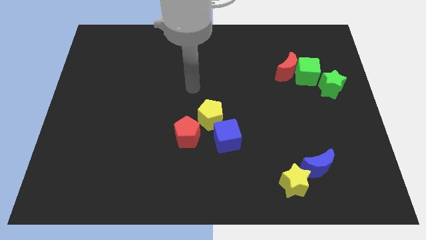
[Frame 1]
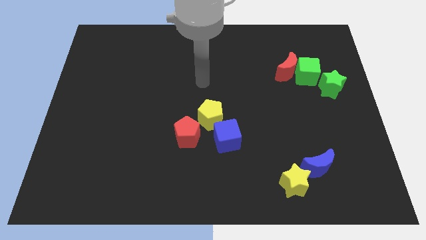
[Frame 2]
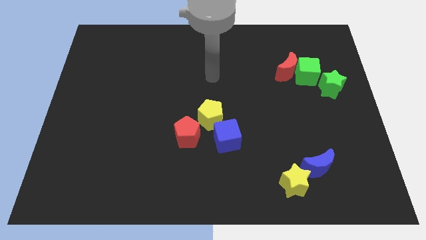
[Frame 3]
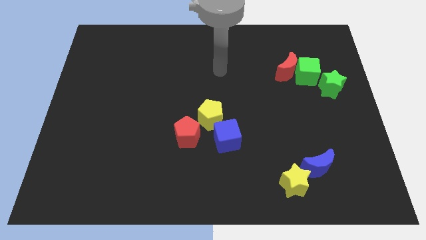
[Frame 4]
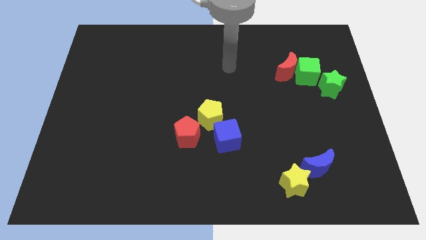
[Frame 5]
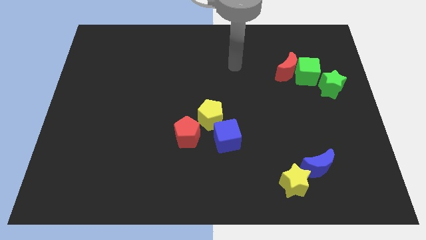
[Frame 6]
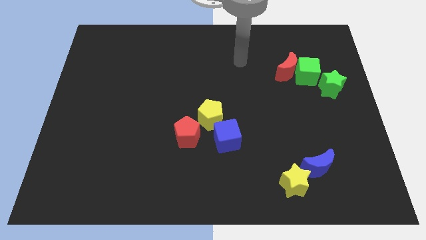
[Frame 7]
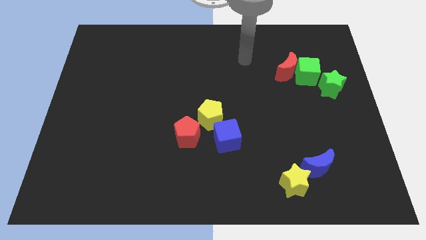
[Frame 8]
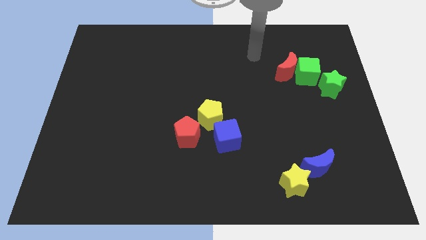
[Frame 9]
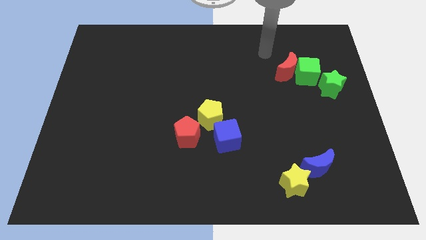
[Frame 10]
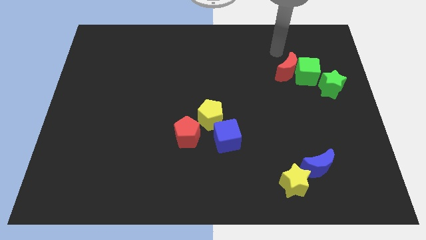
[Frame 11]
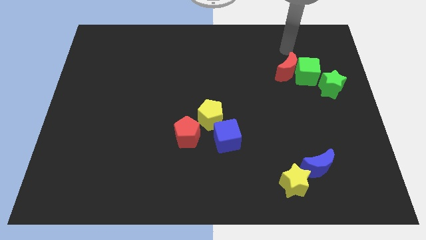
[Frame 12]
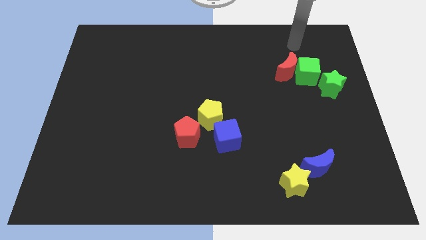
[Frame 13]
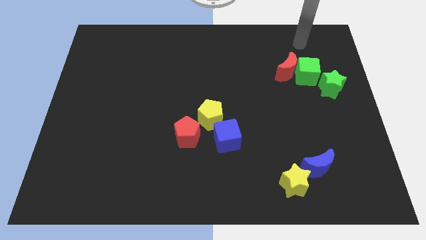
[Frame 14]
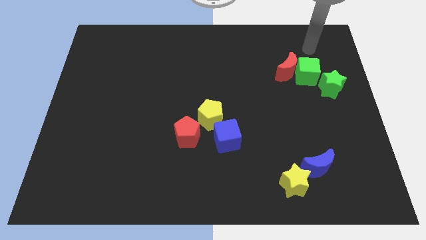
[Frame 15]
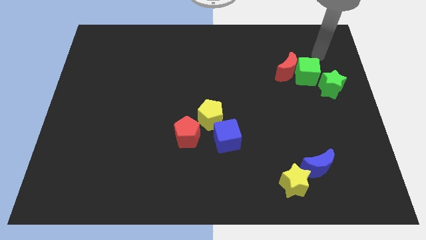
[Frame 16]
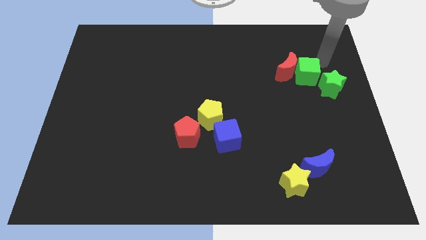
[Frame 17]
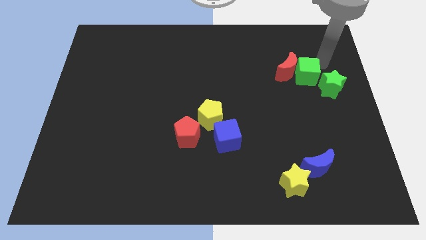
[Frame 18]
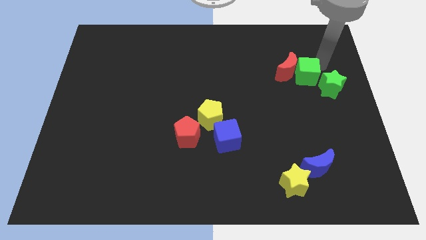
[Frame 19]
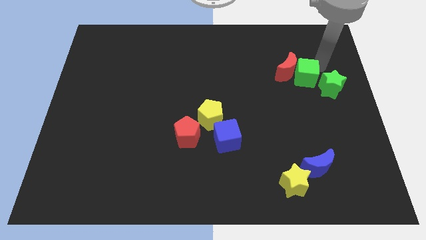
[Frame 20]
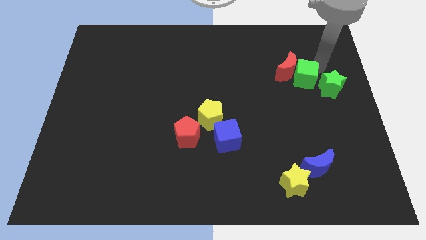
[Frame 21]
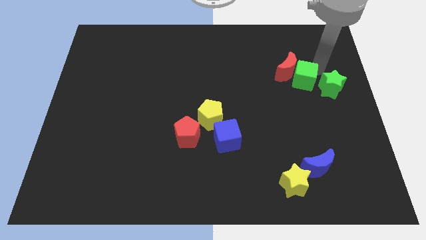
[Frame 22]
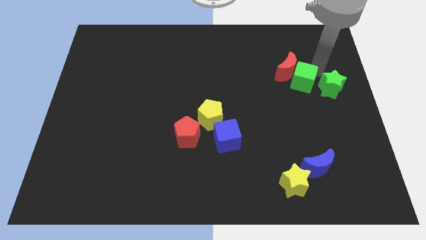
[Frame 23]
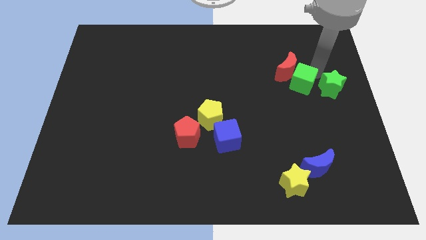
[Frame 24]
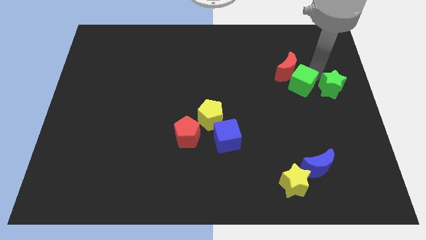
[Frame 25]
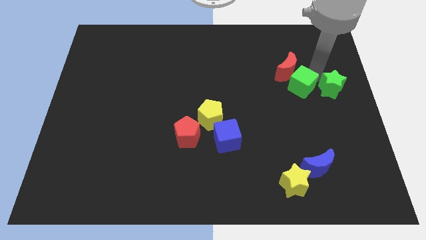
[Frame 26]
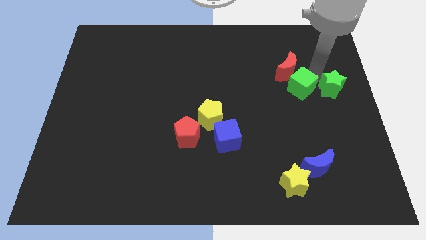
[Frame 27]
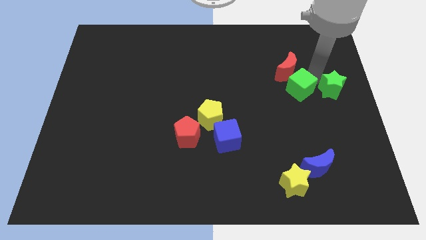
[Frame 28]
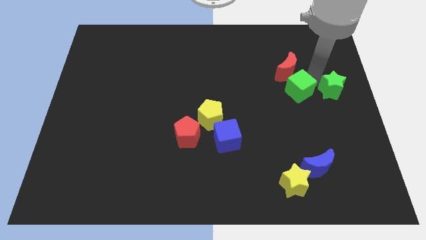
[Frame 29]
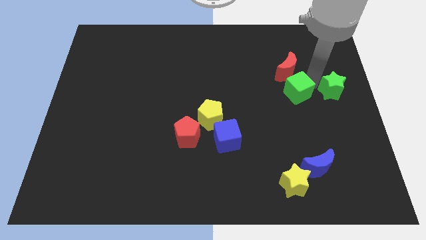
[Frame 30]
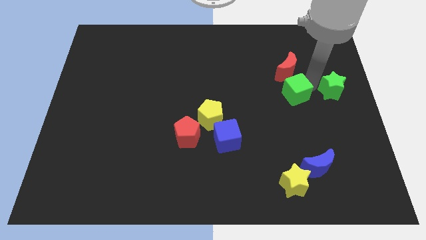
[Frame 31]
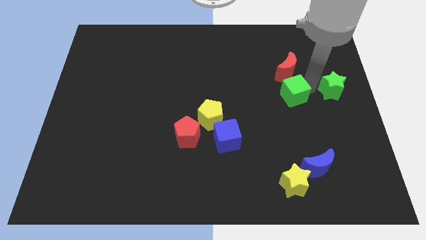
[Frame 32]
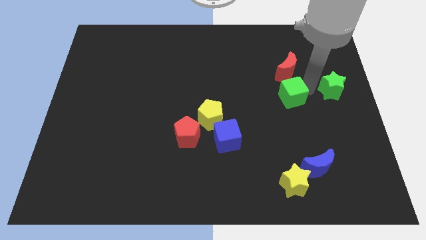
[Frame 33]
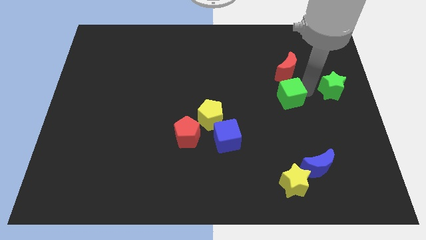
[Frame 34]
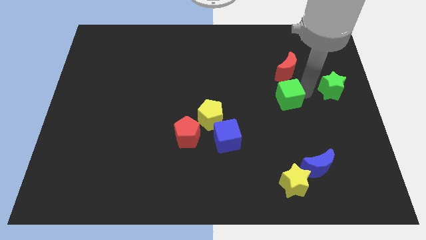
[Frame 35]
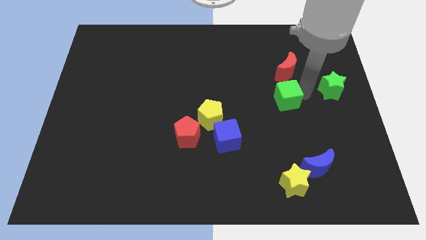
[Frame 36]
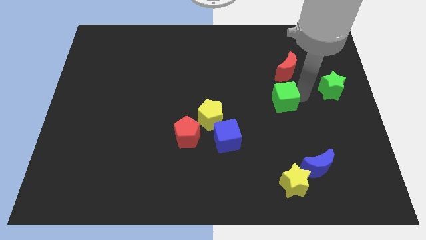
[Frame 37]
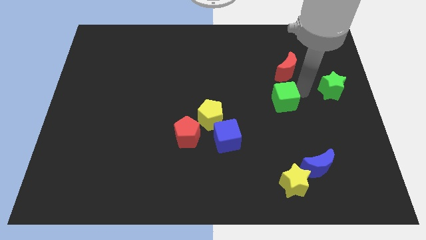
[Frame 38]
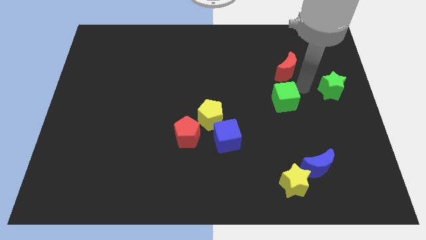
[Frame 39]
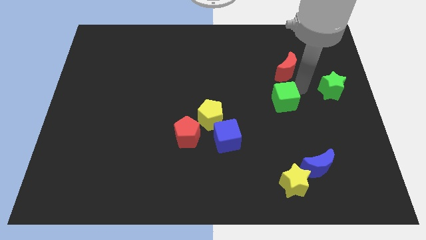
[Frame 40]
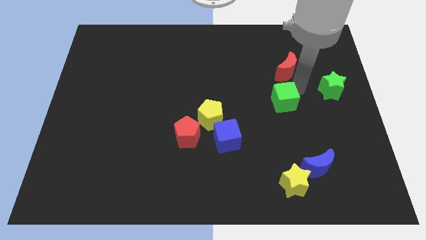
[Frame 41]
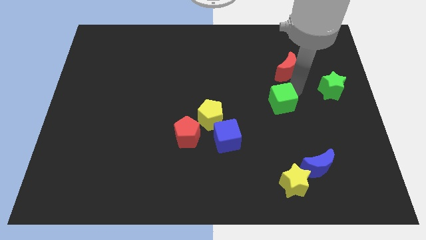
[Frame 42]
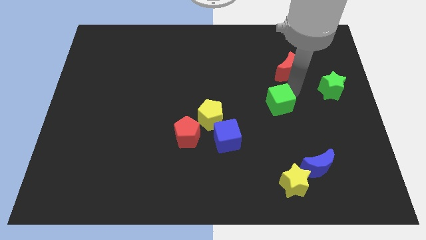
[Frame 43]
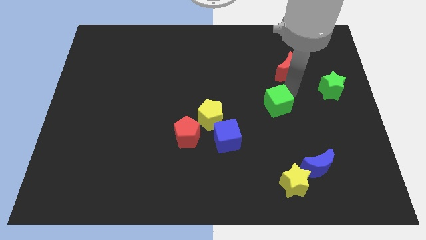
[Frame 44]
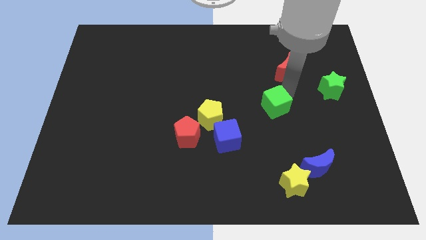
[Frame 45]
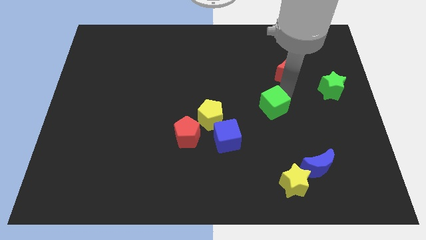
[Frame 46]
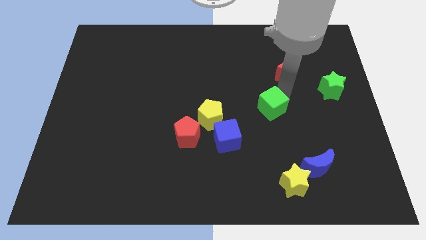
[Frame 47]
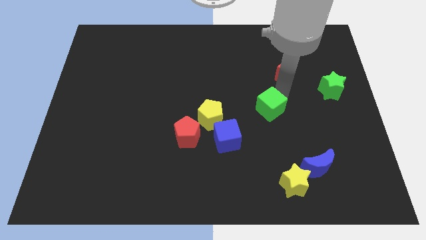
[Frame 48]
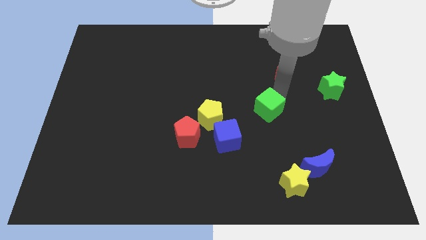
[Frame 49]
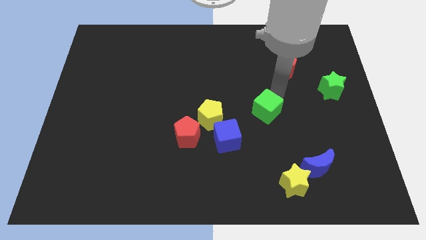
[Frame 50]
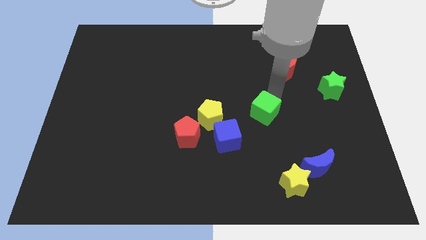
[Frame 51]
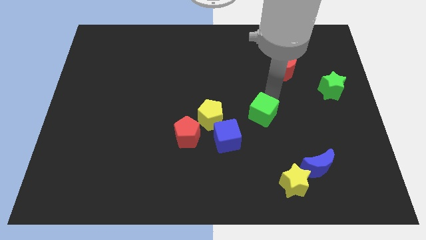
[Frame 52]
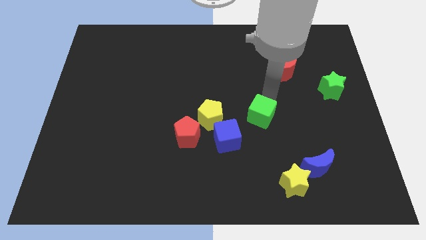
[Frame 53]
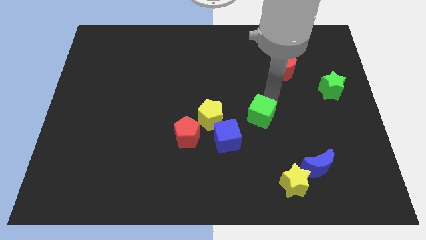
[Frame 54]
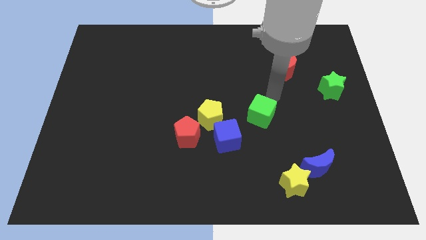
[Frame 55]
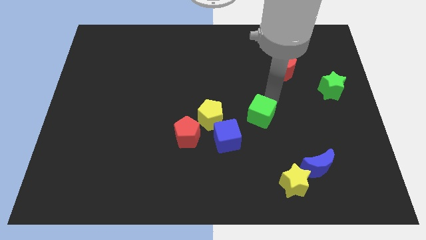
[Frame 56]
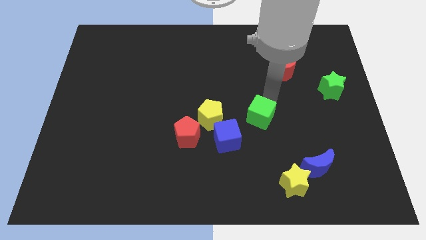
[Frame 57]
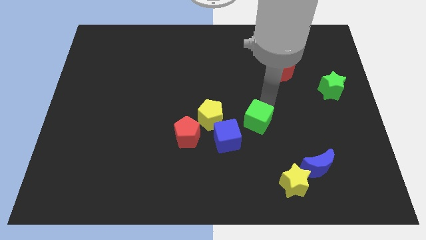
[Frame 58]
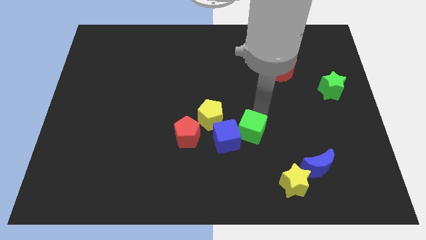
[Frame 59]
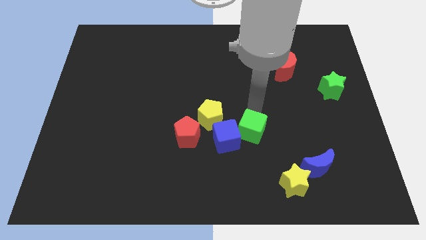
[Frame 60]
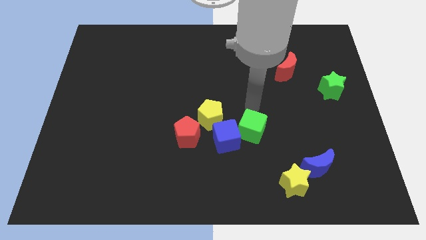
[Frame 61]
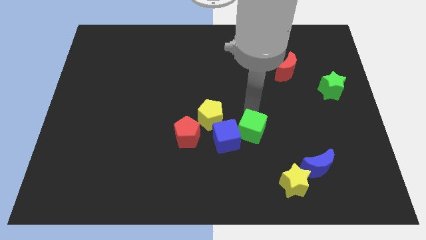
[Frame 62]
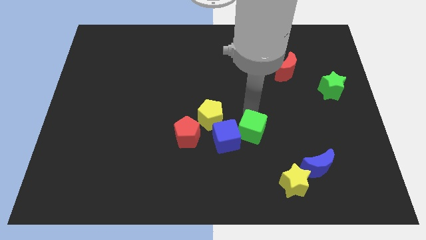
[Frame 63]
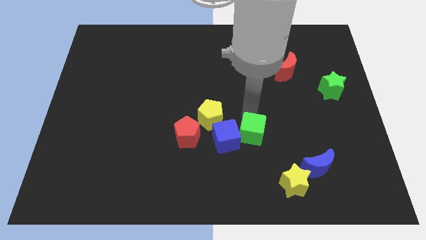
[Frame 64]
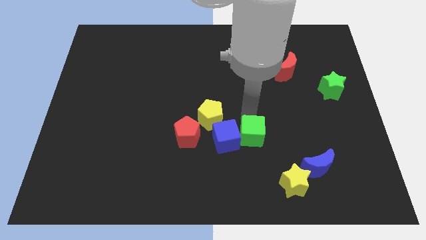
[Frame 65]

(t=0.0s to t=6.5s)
move the green cube to the bottom right side of the blue cube

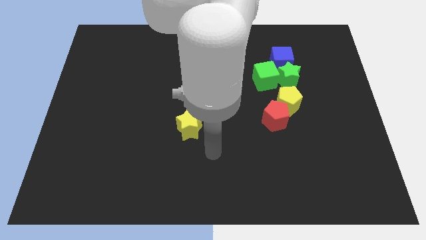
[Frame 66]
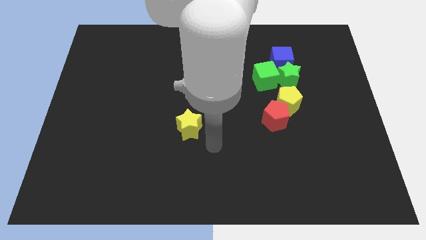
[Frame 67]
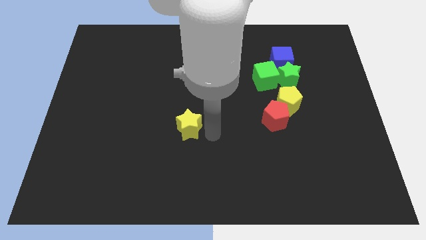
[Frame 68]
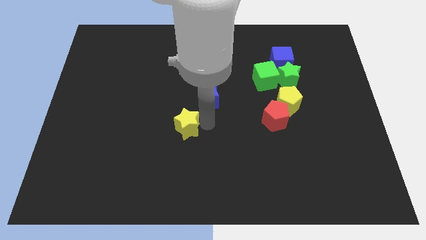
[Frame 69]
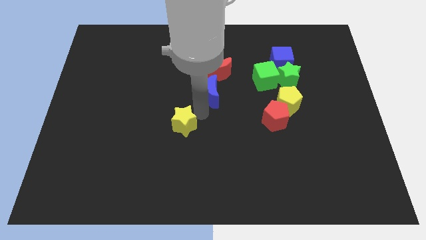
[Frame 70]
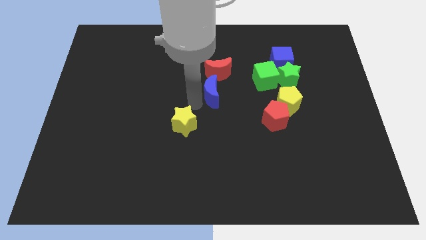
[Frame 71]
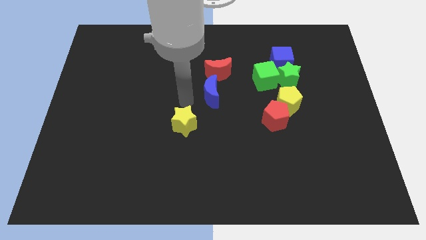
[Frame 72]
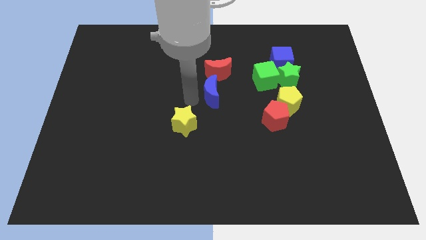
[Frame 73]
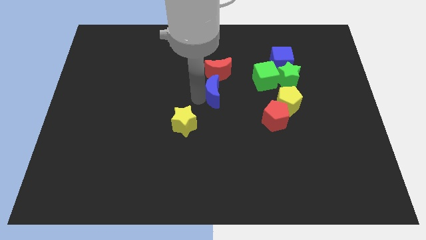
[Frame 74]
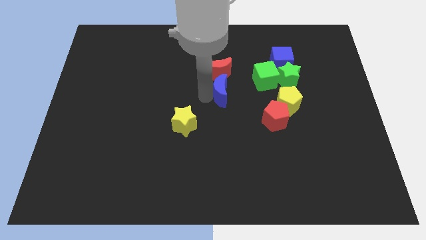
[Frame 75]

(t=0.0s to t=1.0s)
move the blue moon diagonally down and to the right of the red moon
